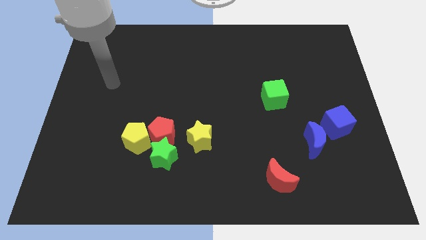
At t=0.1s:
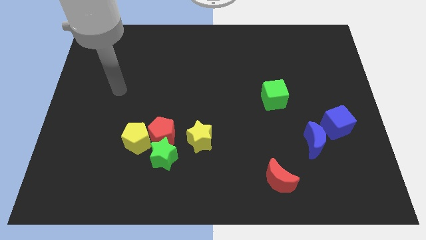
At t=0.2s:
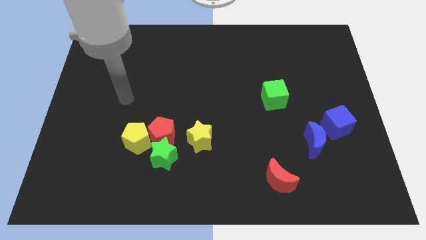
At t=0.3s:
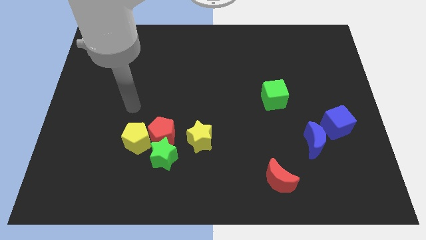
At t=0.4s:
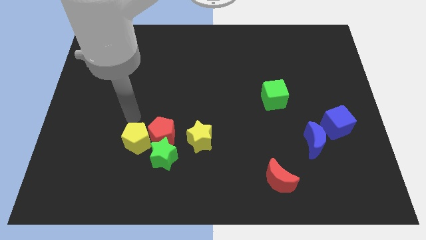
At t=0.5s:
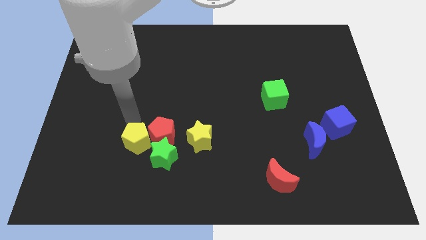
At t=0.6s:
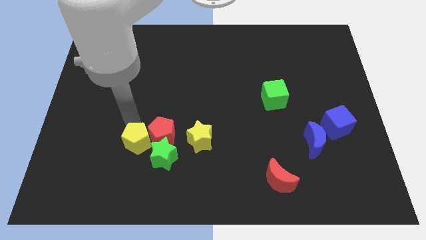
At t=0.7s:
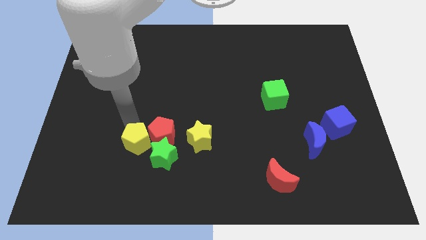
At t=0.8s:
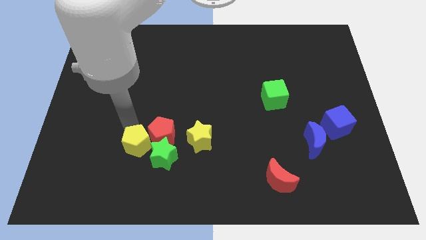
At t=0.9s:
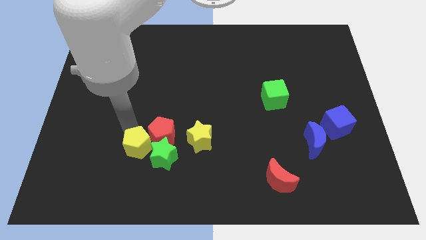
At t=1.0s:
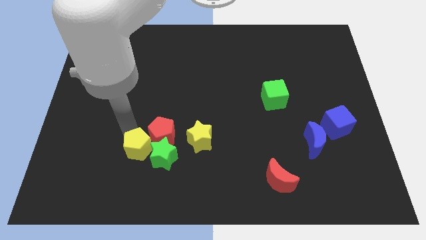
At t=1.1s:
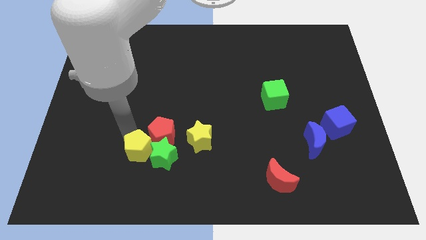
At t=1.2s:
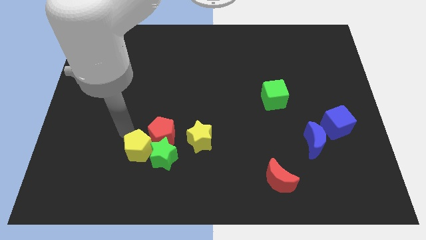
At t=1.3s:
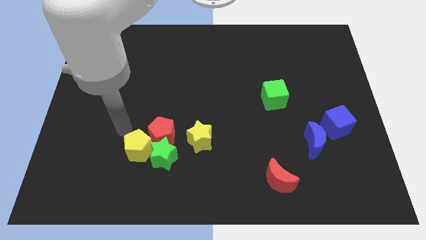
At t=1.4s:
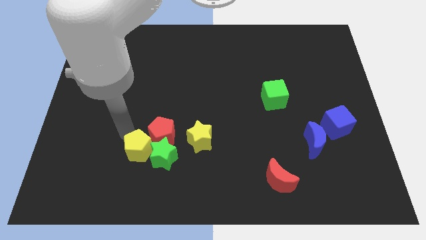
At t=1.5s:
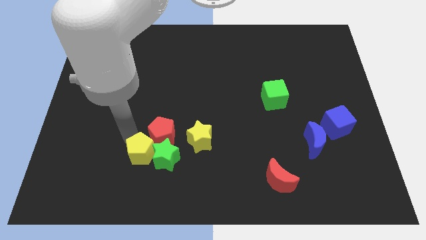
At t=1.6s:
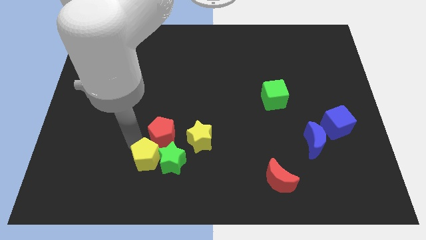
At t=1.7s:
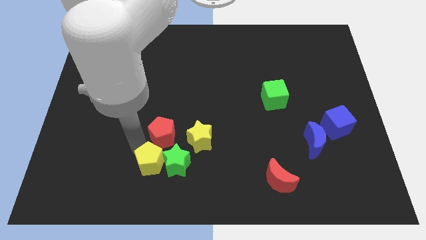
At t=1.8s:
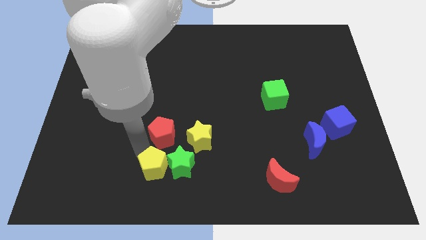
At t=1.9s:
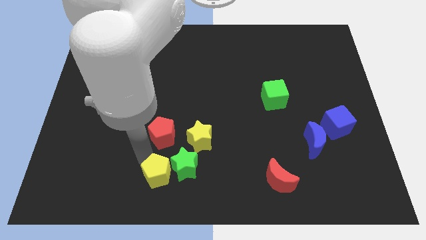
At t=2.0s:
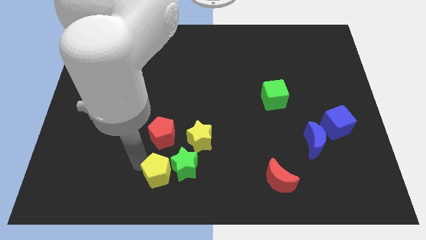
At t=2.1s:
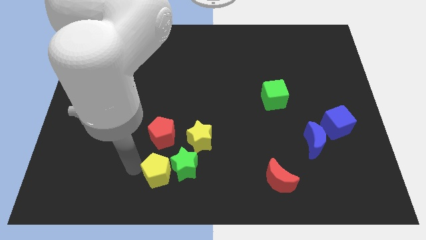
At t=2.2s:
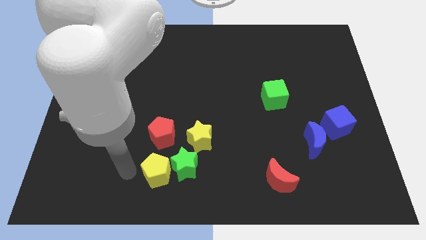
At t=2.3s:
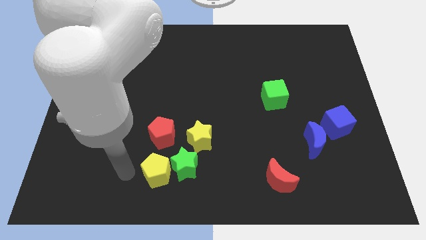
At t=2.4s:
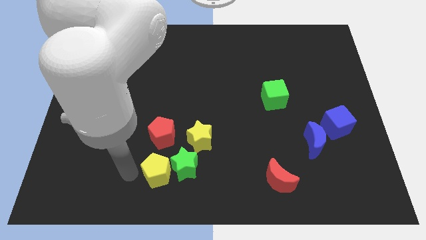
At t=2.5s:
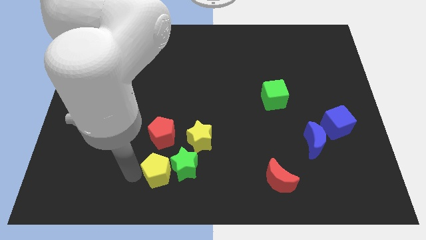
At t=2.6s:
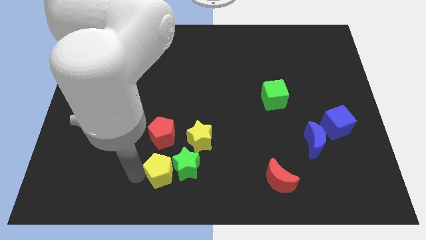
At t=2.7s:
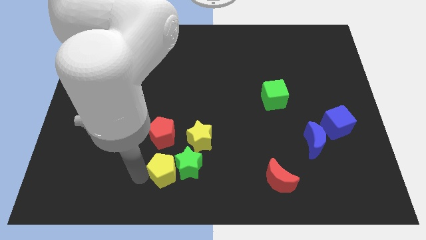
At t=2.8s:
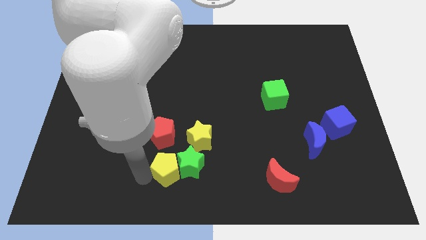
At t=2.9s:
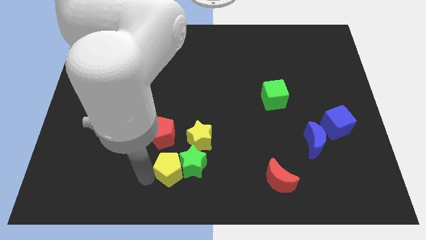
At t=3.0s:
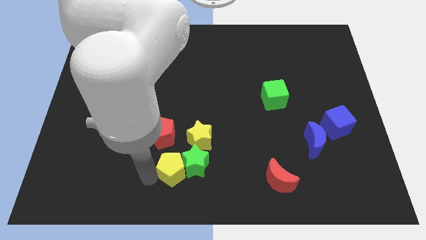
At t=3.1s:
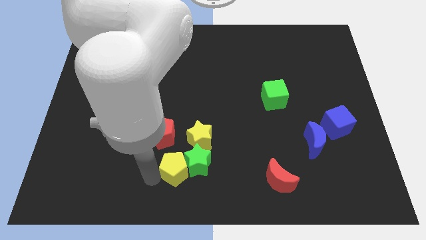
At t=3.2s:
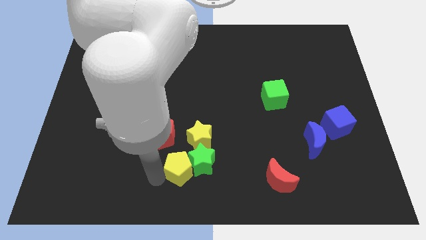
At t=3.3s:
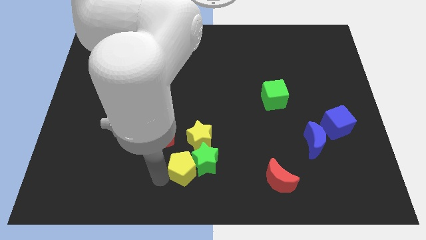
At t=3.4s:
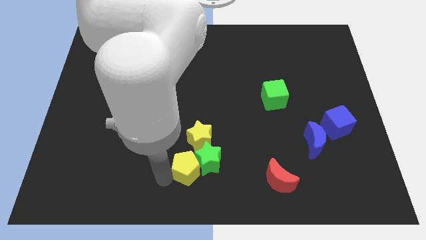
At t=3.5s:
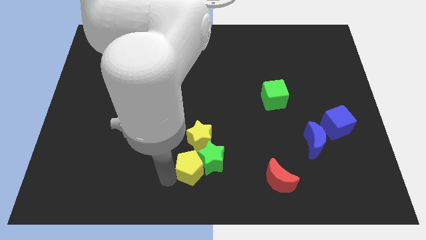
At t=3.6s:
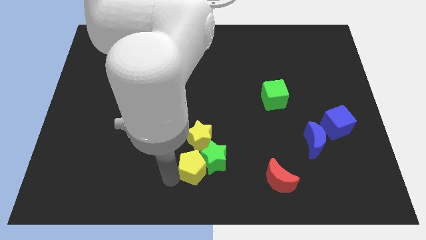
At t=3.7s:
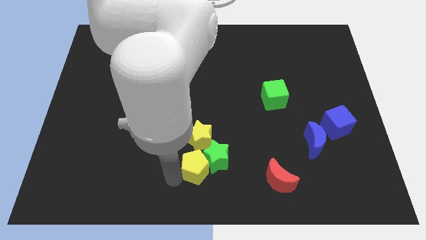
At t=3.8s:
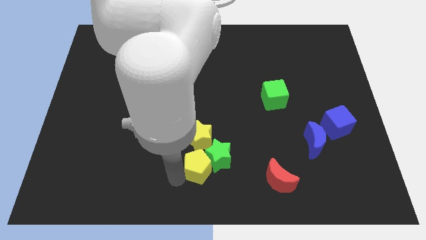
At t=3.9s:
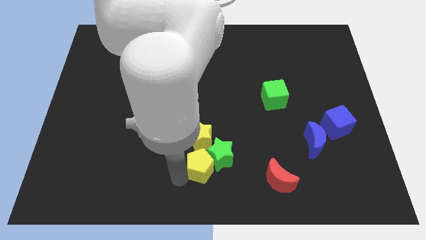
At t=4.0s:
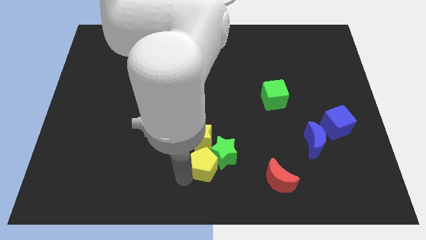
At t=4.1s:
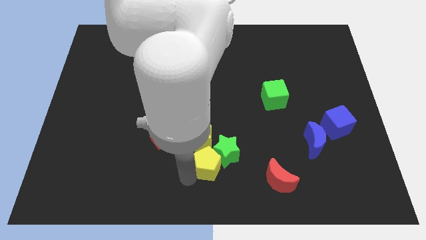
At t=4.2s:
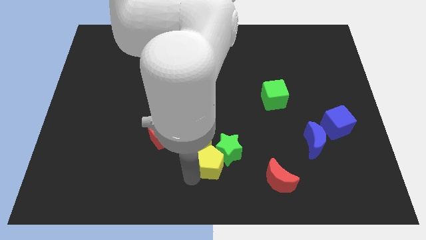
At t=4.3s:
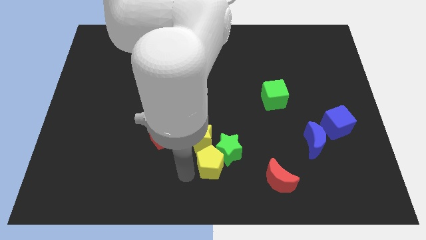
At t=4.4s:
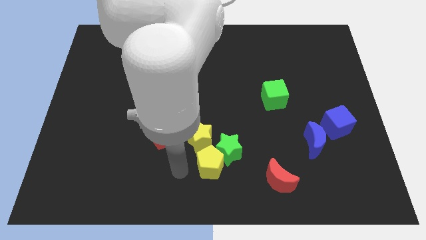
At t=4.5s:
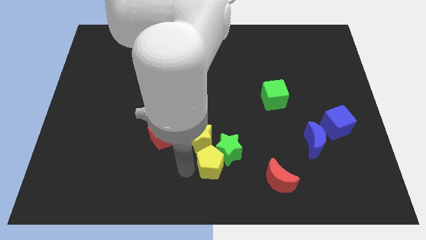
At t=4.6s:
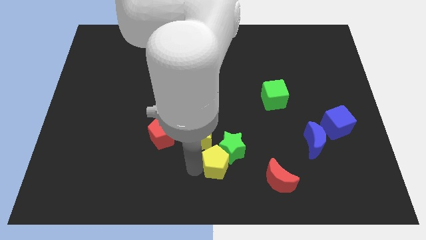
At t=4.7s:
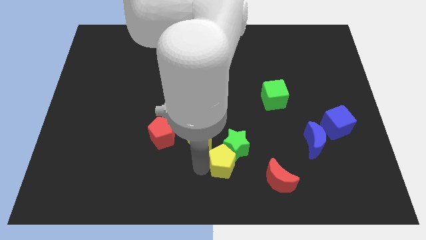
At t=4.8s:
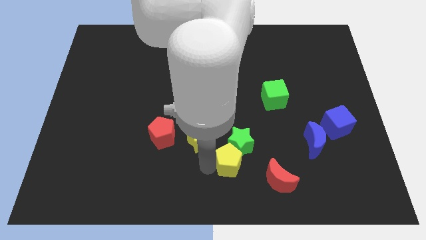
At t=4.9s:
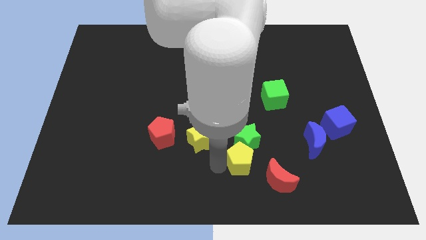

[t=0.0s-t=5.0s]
slide the yellow pentagon right

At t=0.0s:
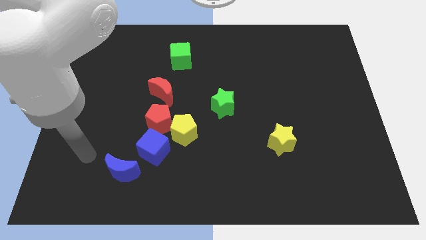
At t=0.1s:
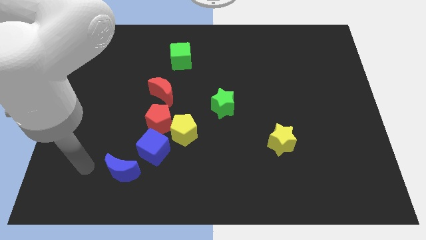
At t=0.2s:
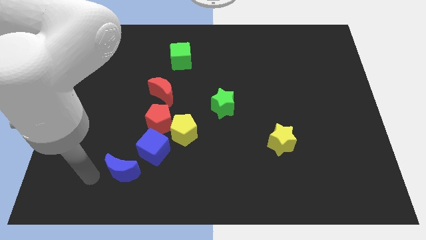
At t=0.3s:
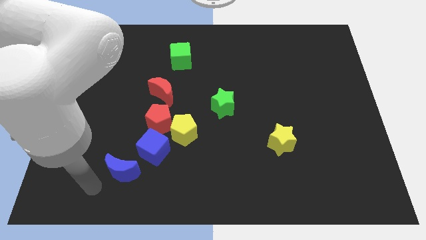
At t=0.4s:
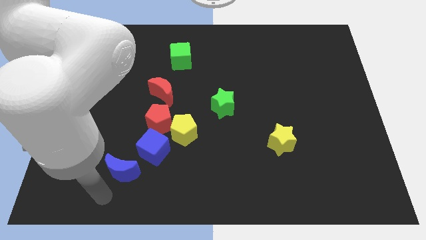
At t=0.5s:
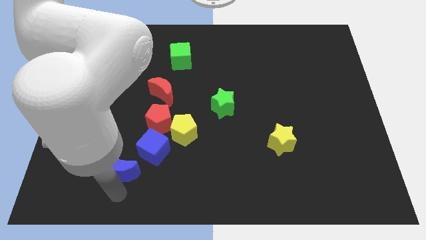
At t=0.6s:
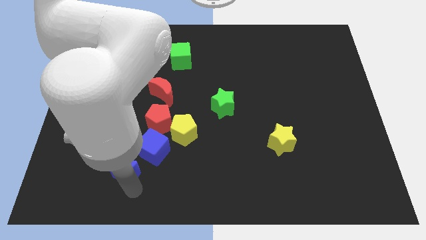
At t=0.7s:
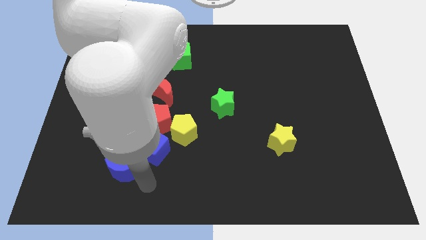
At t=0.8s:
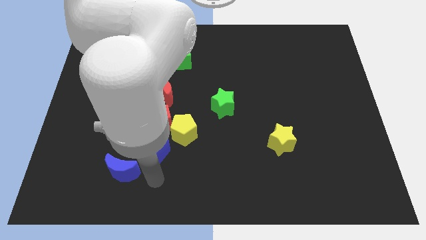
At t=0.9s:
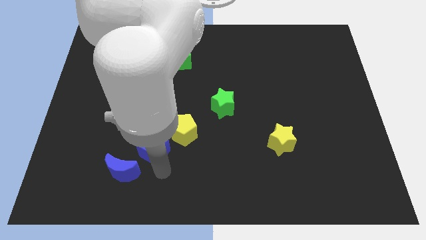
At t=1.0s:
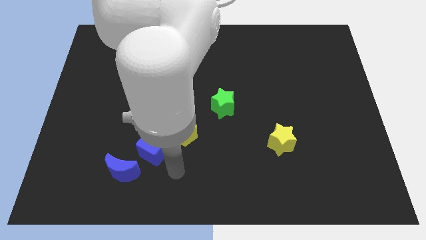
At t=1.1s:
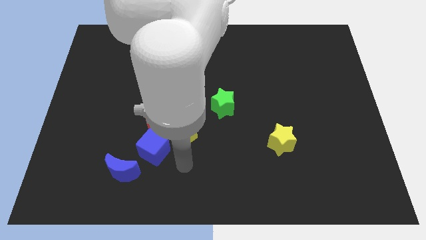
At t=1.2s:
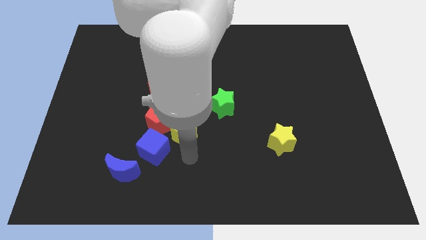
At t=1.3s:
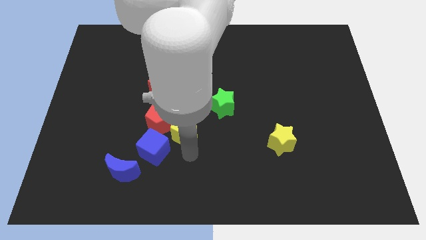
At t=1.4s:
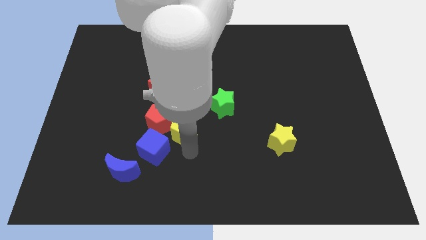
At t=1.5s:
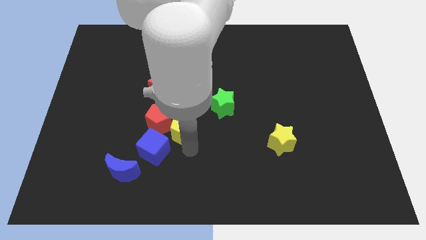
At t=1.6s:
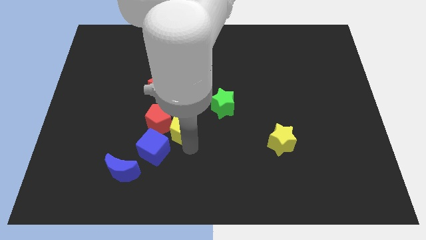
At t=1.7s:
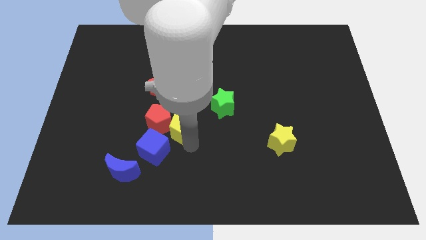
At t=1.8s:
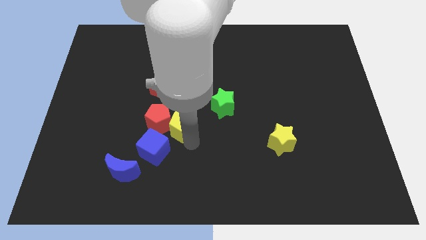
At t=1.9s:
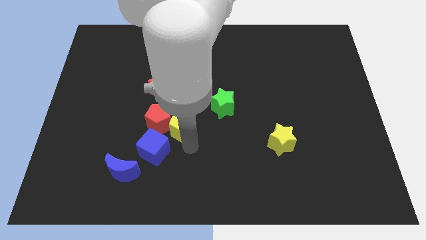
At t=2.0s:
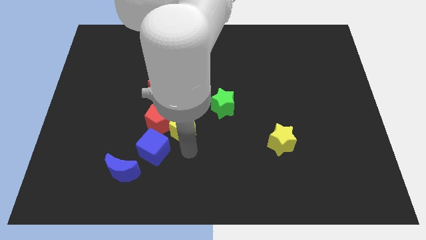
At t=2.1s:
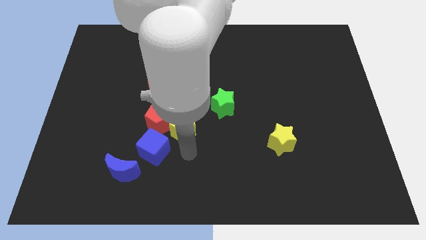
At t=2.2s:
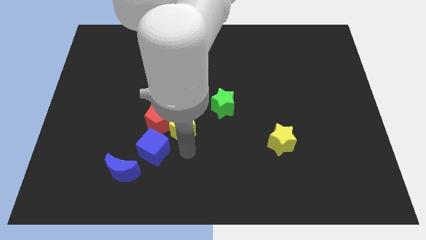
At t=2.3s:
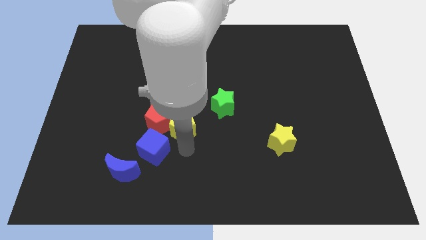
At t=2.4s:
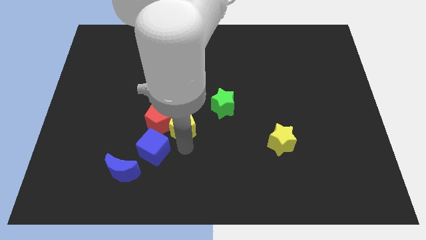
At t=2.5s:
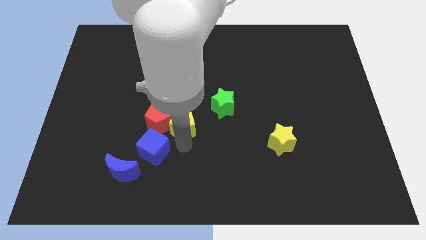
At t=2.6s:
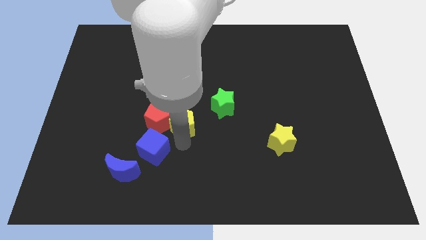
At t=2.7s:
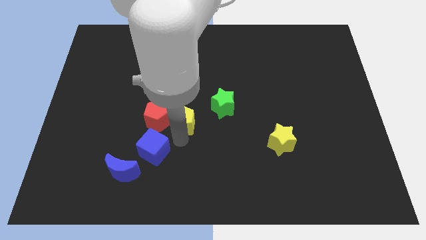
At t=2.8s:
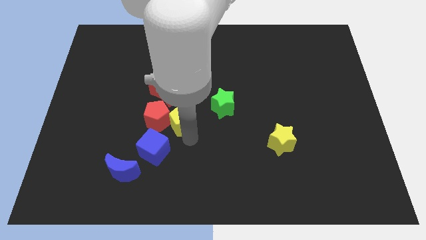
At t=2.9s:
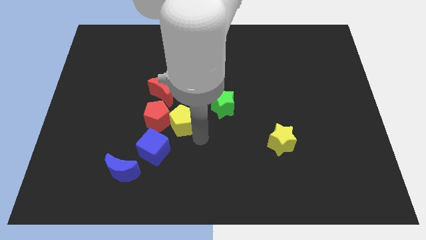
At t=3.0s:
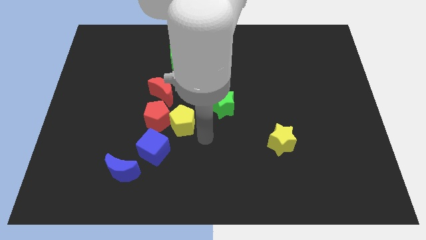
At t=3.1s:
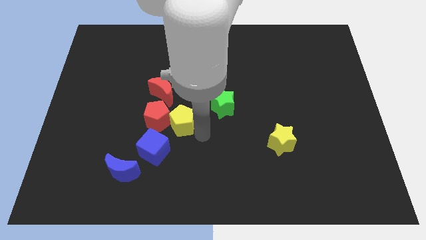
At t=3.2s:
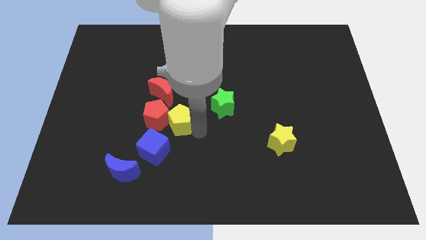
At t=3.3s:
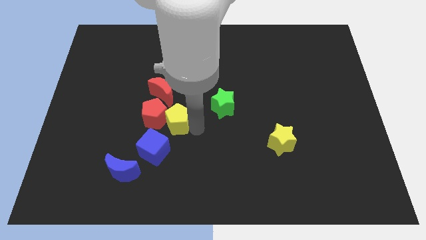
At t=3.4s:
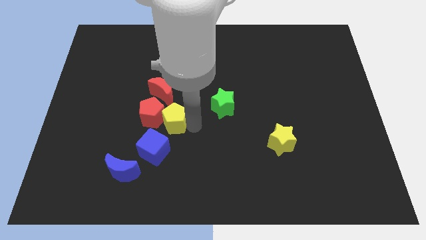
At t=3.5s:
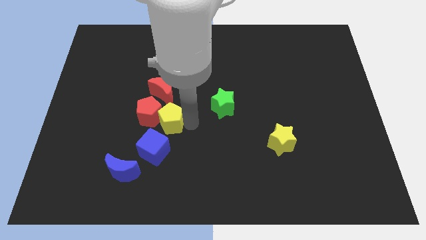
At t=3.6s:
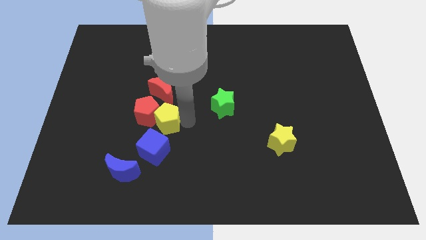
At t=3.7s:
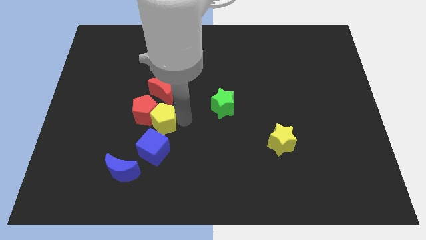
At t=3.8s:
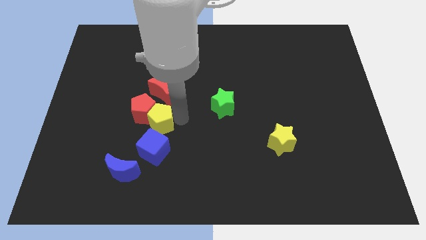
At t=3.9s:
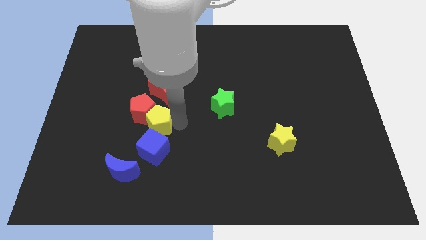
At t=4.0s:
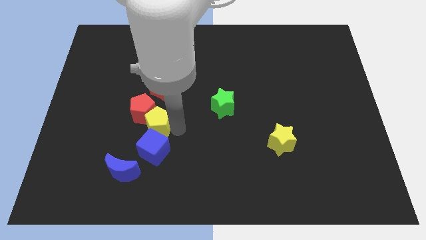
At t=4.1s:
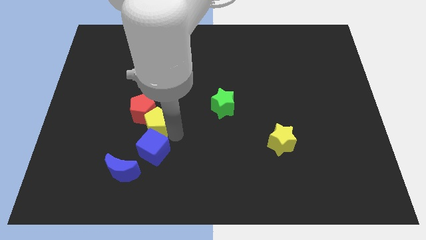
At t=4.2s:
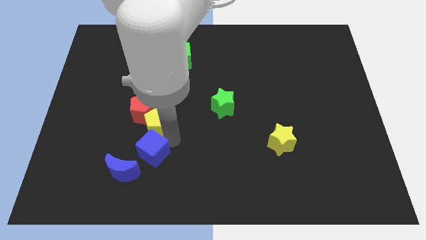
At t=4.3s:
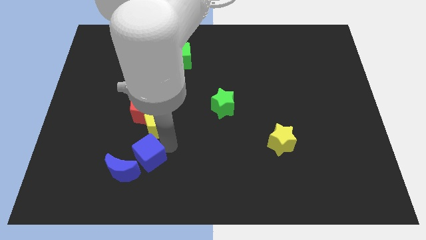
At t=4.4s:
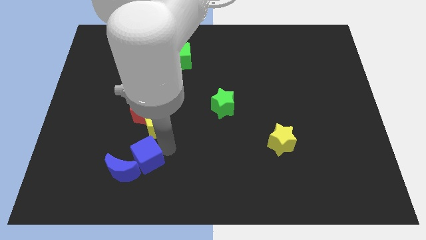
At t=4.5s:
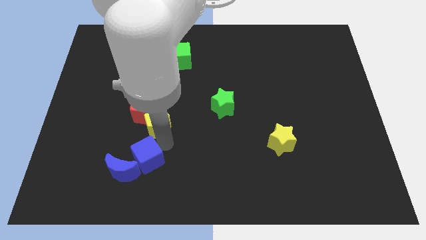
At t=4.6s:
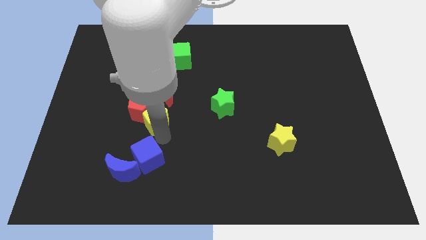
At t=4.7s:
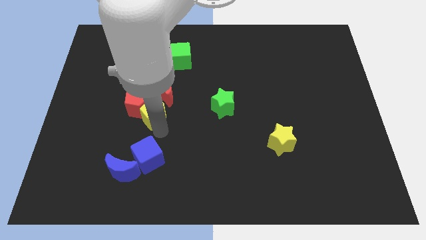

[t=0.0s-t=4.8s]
slide the yellow pentagon upwards and to the left somewhat
